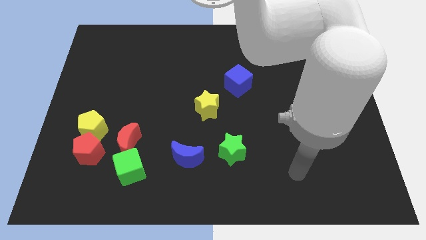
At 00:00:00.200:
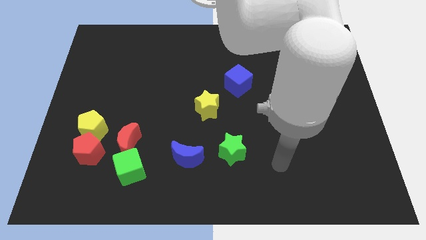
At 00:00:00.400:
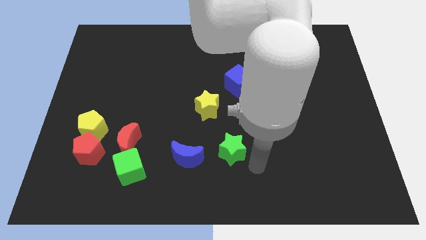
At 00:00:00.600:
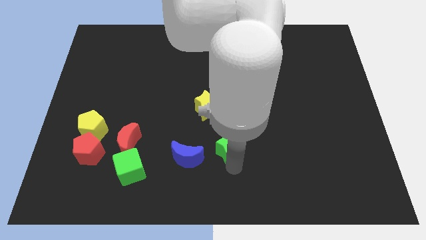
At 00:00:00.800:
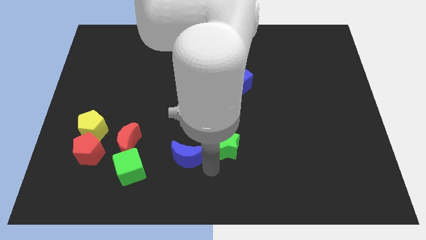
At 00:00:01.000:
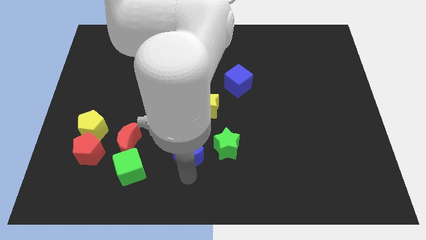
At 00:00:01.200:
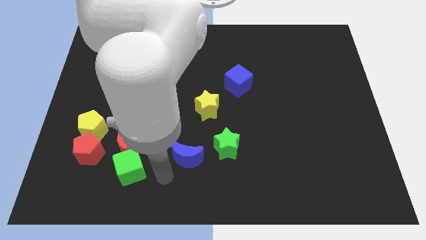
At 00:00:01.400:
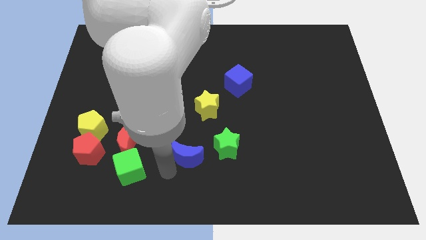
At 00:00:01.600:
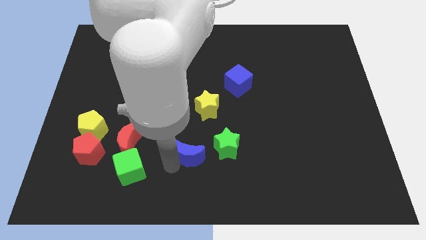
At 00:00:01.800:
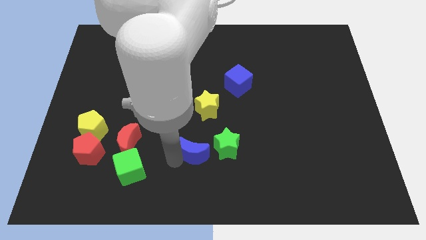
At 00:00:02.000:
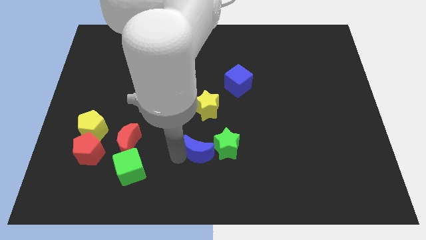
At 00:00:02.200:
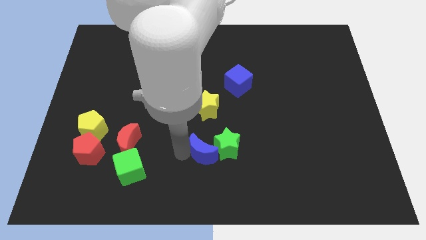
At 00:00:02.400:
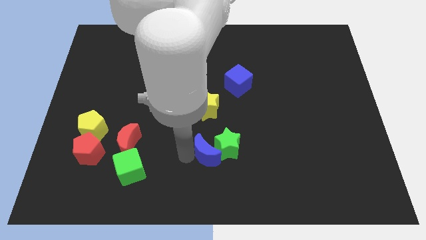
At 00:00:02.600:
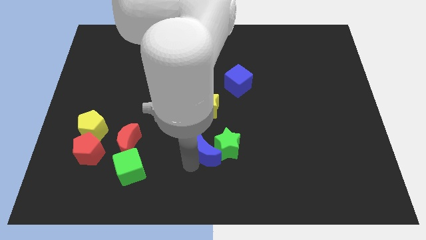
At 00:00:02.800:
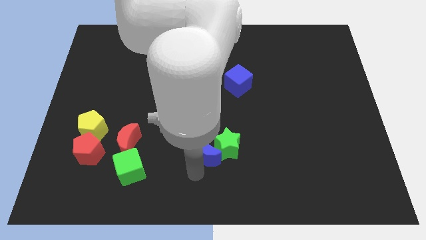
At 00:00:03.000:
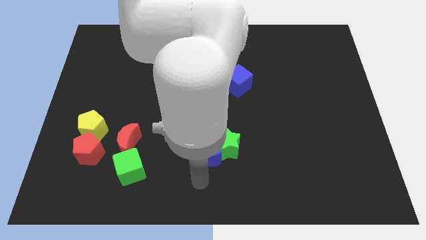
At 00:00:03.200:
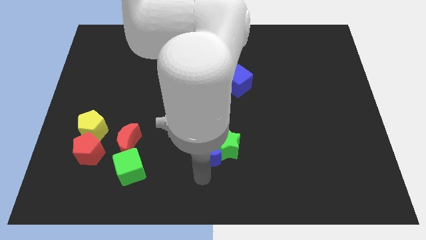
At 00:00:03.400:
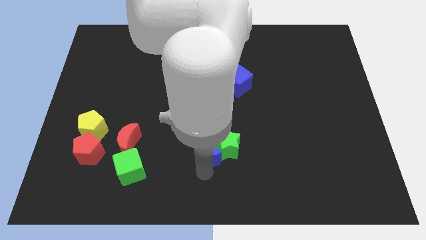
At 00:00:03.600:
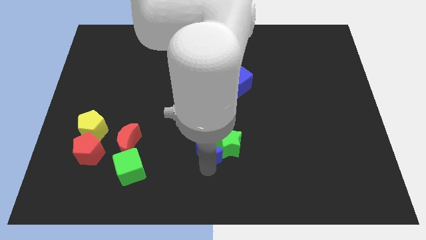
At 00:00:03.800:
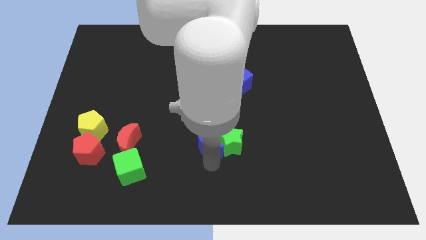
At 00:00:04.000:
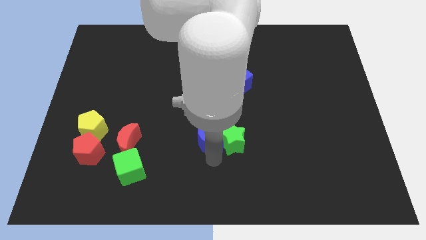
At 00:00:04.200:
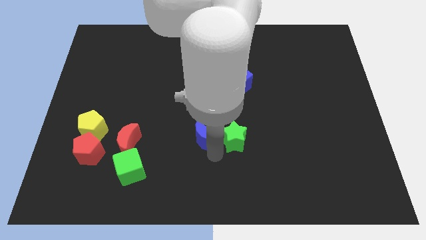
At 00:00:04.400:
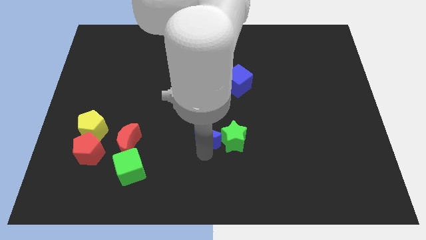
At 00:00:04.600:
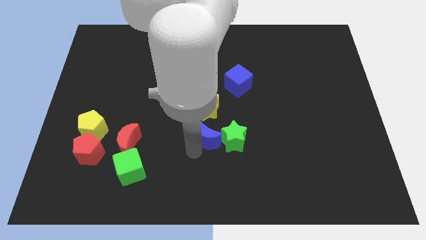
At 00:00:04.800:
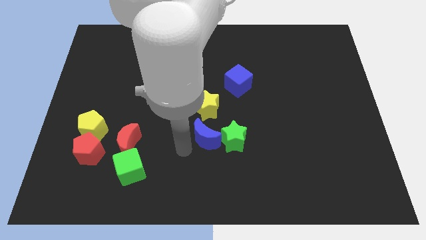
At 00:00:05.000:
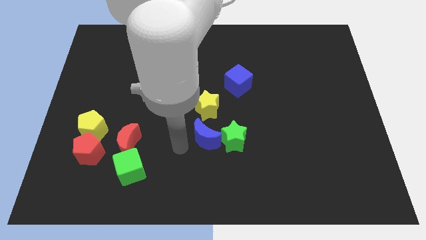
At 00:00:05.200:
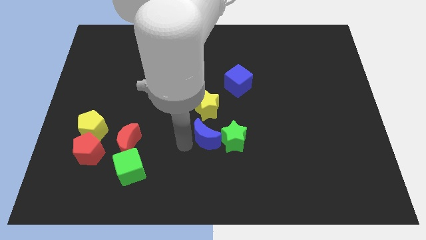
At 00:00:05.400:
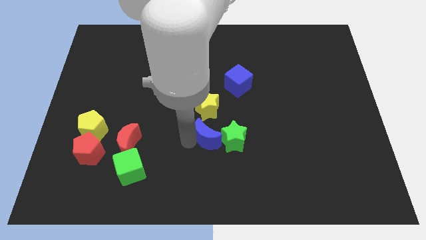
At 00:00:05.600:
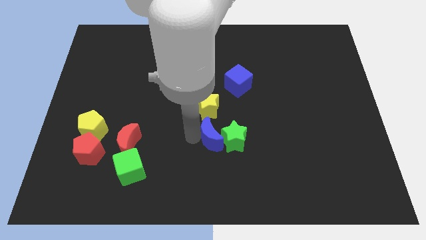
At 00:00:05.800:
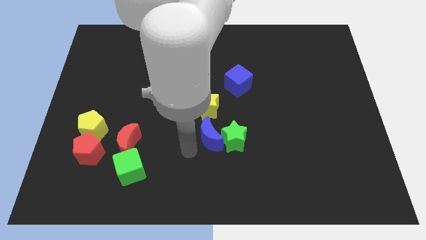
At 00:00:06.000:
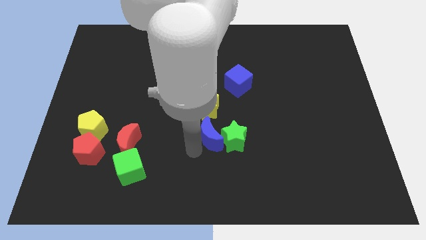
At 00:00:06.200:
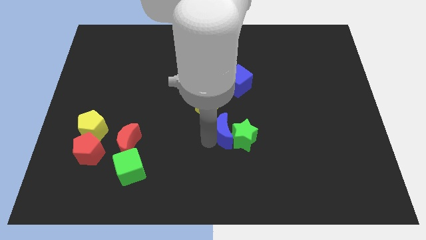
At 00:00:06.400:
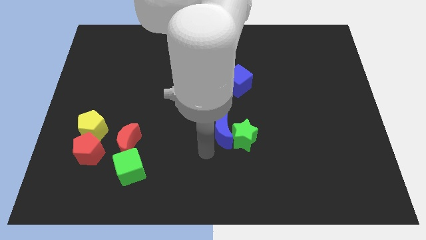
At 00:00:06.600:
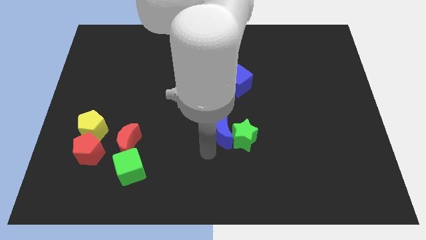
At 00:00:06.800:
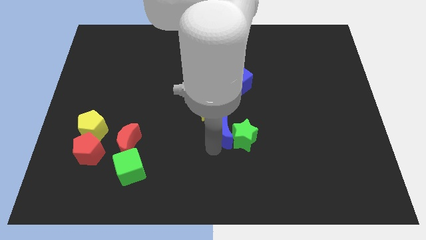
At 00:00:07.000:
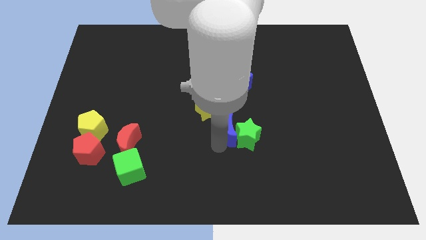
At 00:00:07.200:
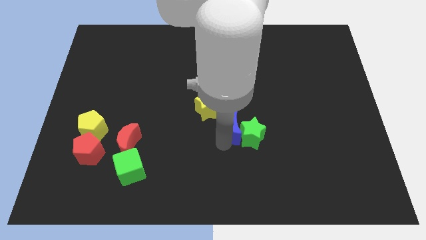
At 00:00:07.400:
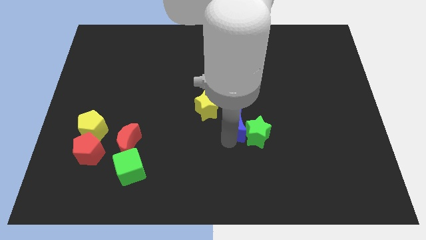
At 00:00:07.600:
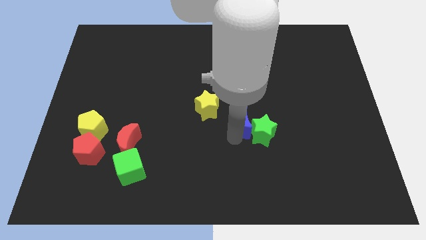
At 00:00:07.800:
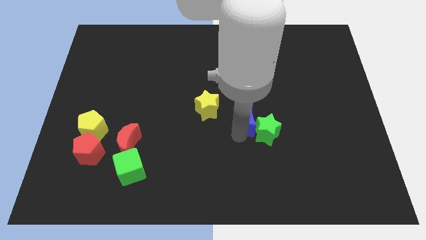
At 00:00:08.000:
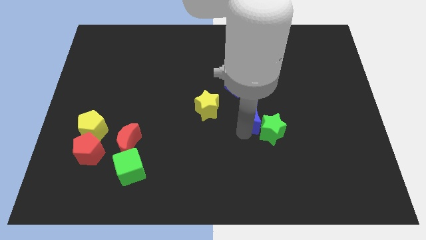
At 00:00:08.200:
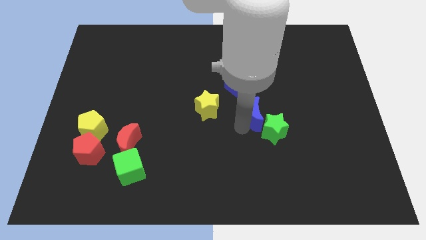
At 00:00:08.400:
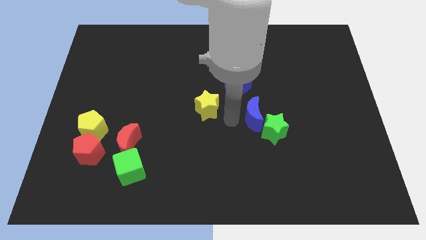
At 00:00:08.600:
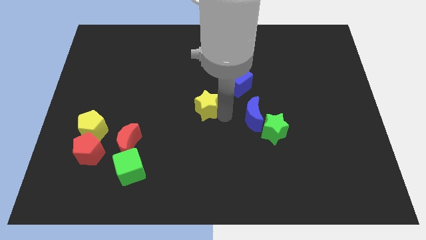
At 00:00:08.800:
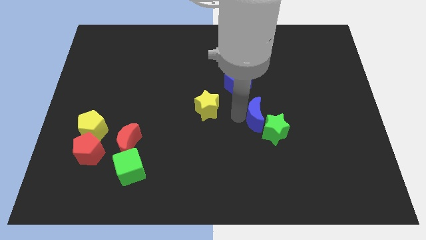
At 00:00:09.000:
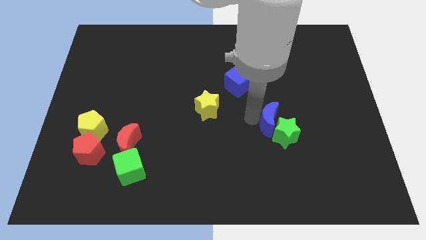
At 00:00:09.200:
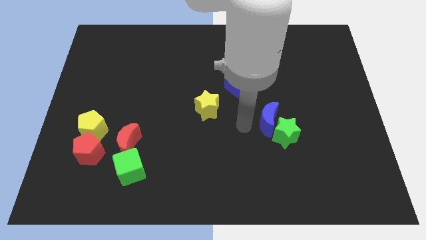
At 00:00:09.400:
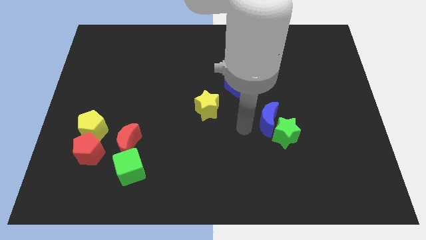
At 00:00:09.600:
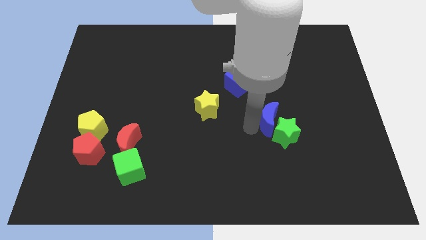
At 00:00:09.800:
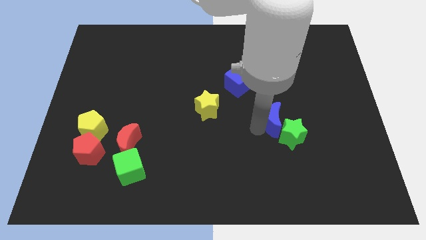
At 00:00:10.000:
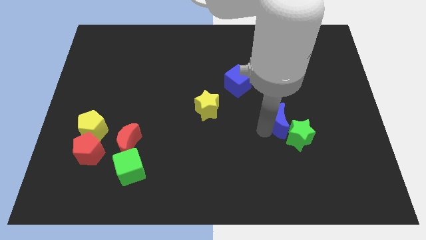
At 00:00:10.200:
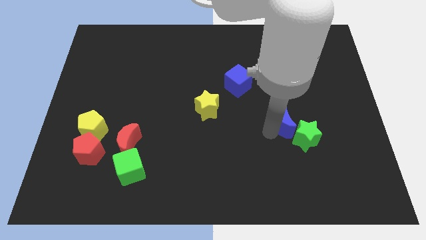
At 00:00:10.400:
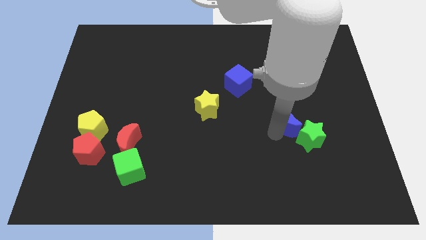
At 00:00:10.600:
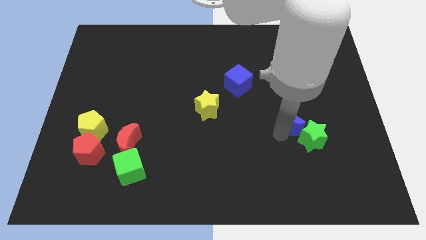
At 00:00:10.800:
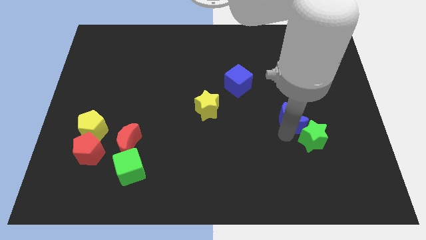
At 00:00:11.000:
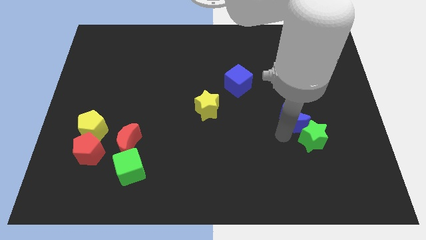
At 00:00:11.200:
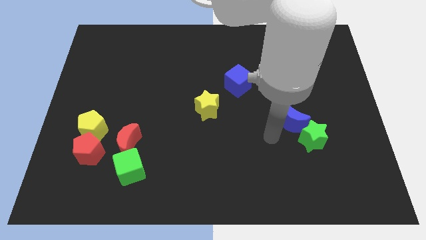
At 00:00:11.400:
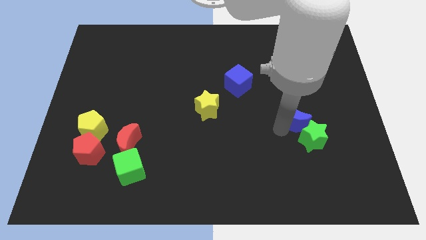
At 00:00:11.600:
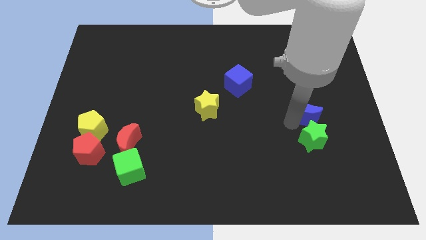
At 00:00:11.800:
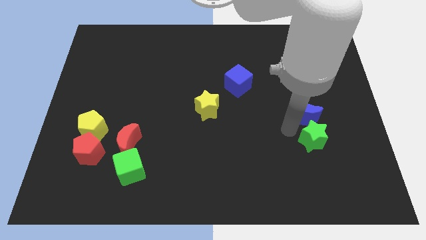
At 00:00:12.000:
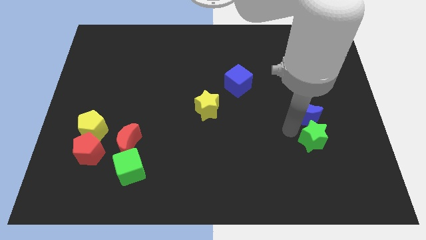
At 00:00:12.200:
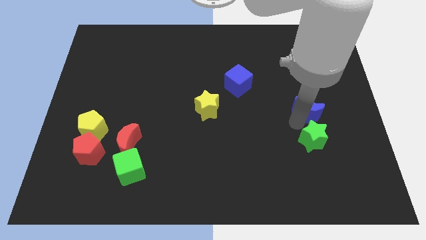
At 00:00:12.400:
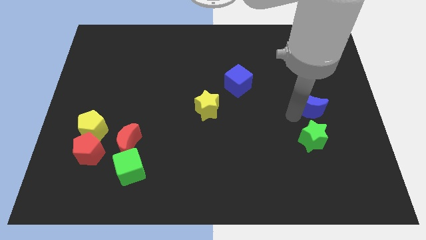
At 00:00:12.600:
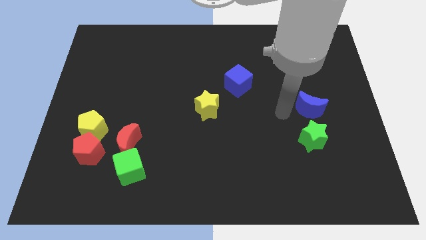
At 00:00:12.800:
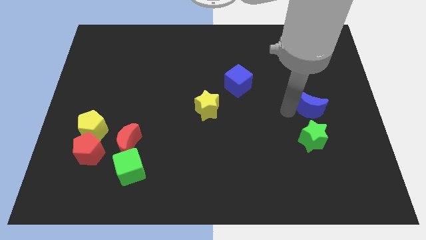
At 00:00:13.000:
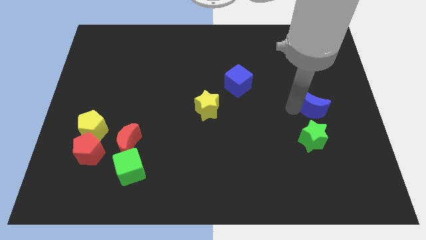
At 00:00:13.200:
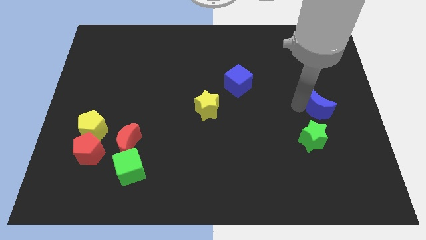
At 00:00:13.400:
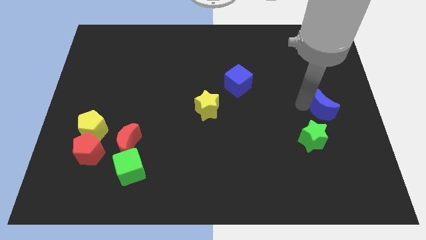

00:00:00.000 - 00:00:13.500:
move the blue moon to the right side
